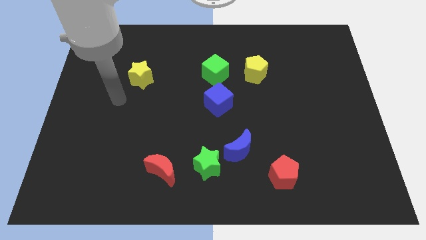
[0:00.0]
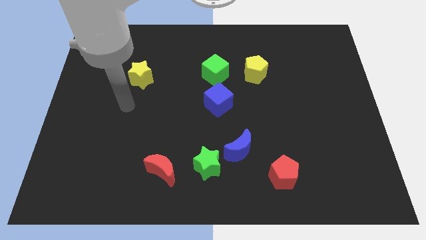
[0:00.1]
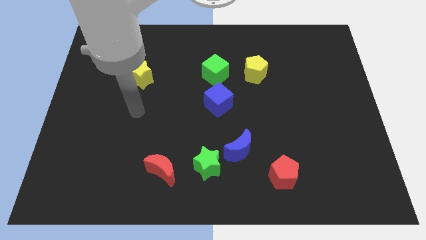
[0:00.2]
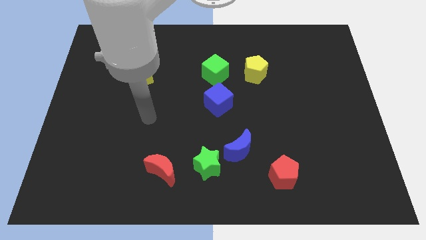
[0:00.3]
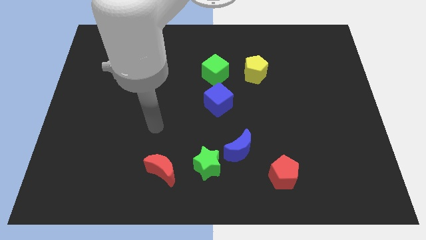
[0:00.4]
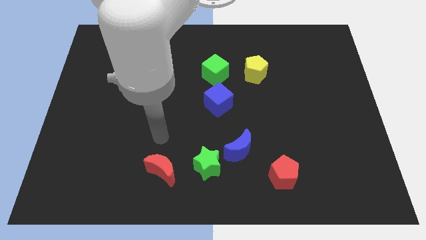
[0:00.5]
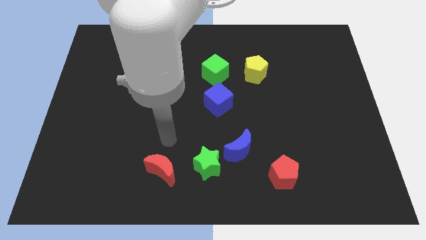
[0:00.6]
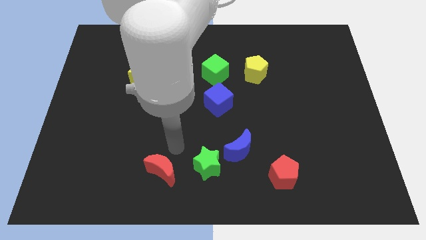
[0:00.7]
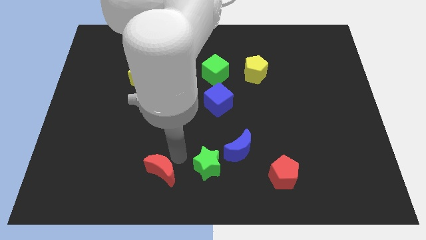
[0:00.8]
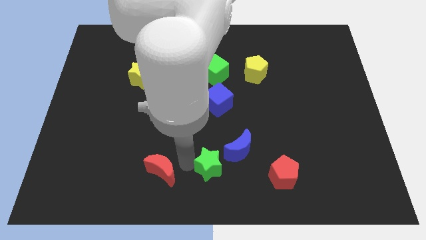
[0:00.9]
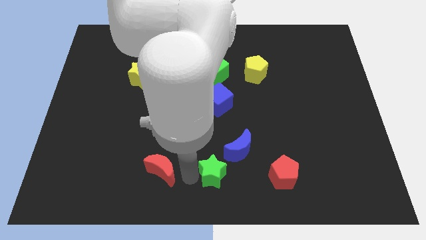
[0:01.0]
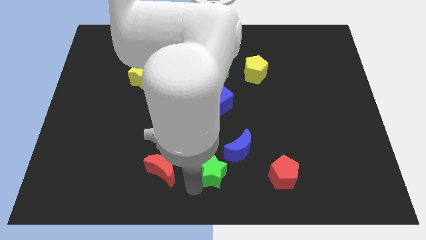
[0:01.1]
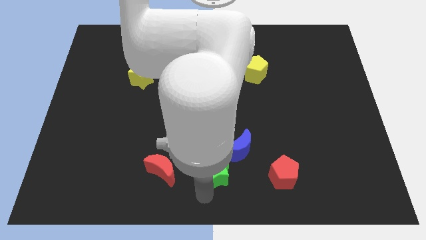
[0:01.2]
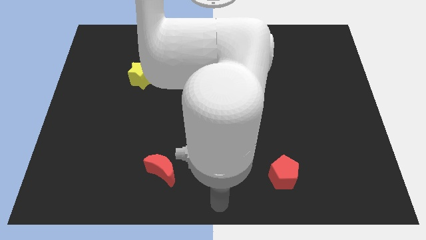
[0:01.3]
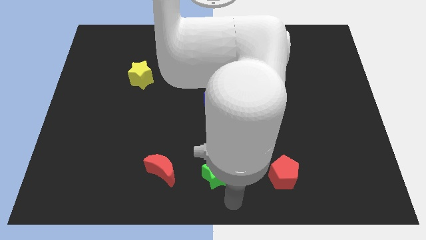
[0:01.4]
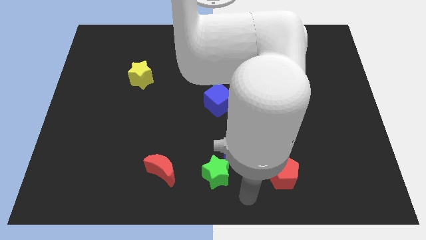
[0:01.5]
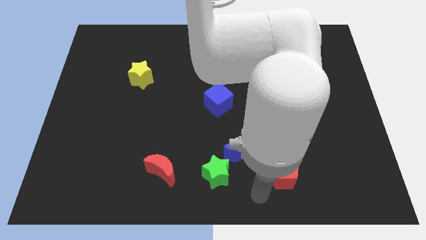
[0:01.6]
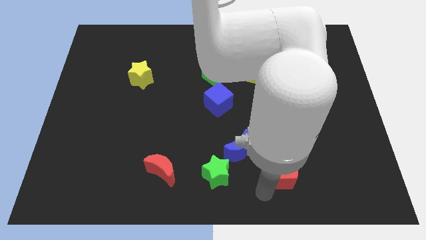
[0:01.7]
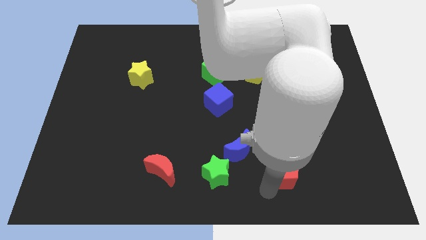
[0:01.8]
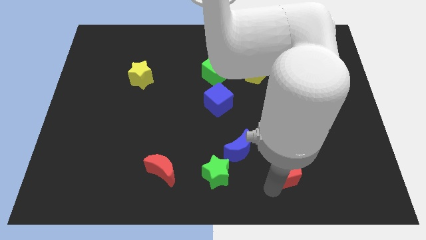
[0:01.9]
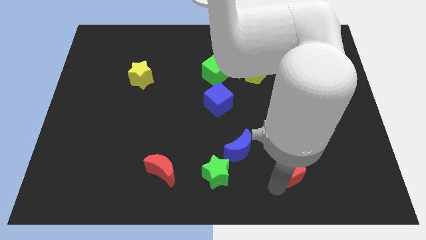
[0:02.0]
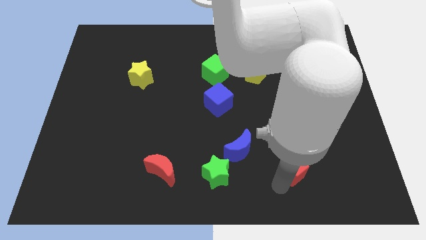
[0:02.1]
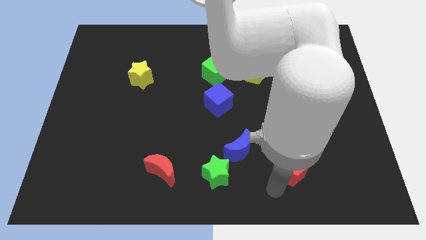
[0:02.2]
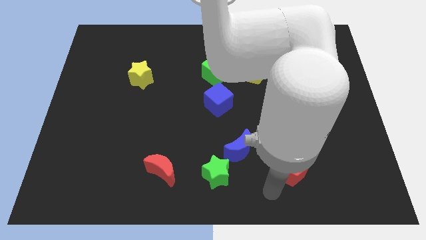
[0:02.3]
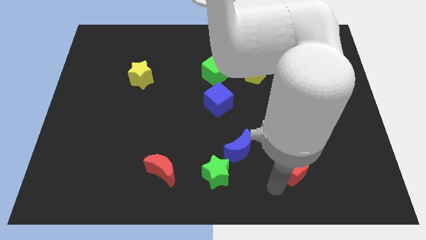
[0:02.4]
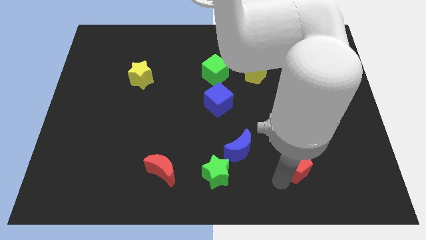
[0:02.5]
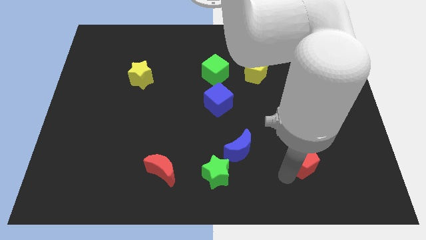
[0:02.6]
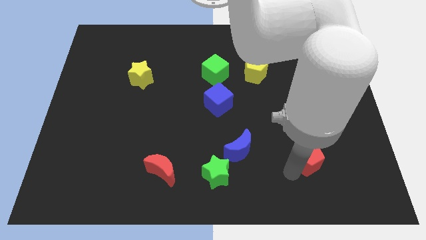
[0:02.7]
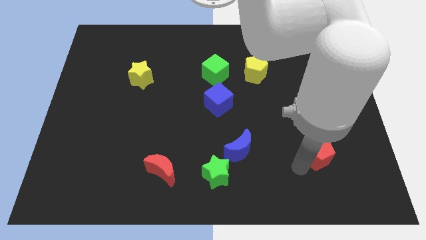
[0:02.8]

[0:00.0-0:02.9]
slide the red pentagon a little bit up and right diagonally

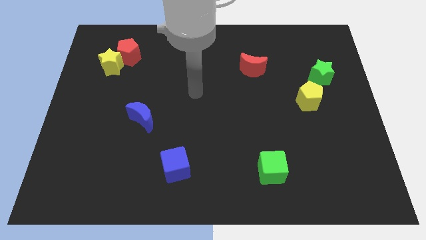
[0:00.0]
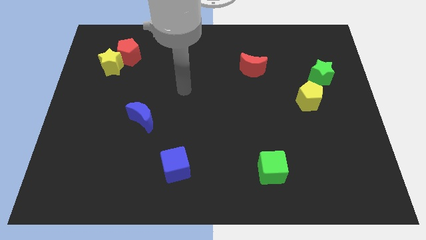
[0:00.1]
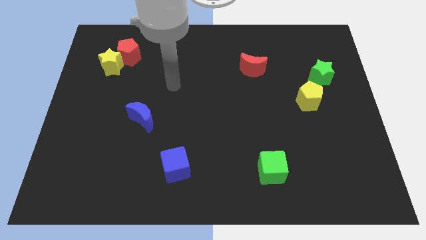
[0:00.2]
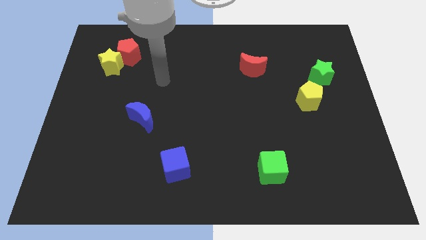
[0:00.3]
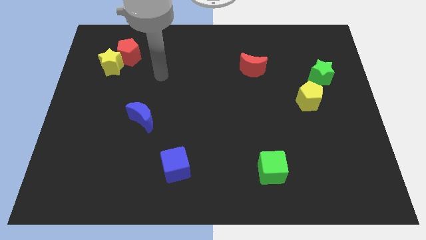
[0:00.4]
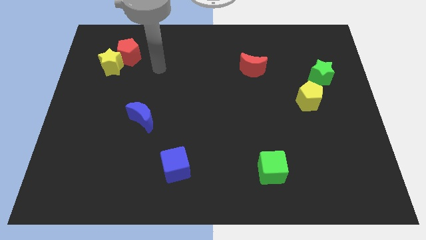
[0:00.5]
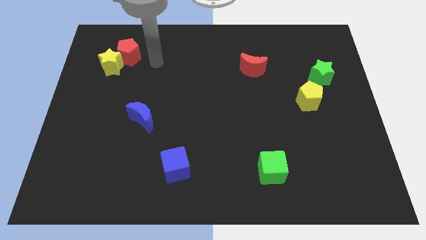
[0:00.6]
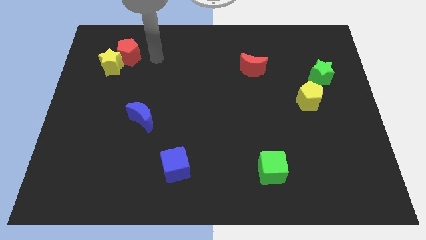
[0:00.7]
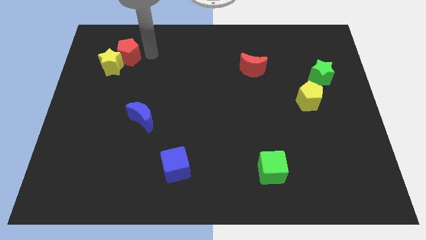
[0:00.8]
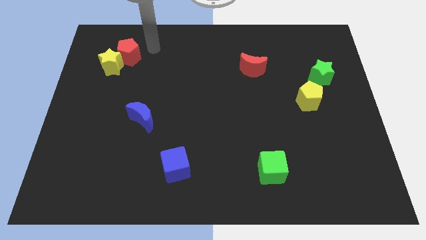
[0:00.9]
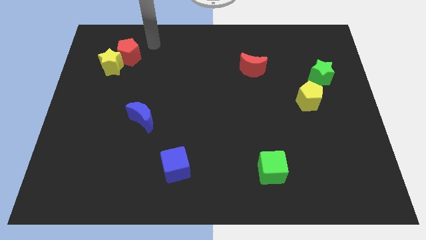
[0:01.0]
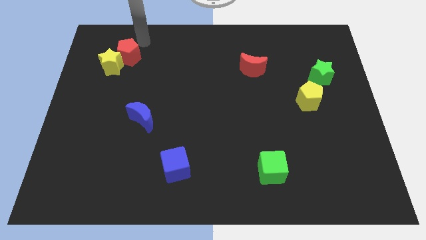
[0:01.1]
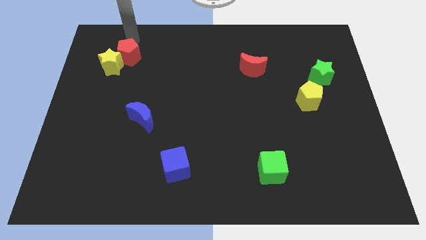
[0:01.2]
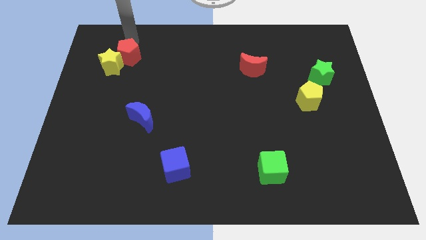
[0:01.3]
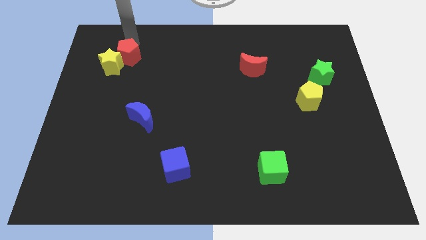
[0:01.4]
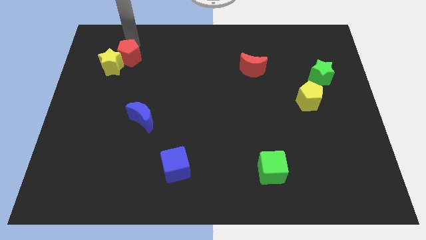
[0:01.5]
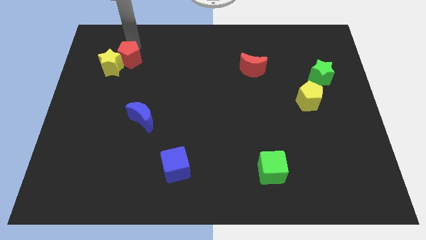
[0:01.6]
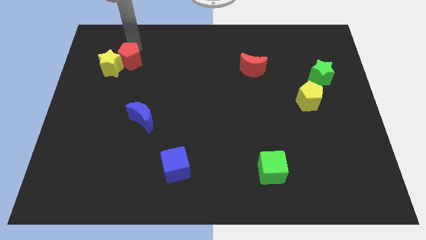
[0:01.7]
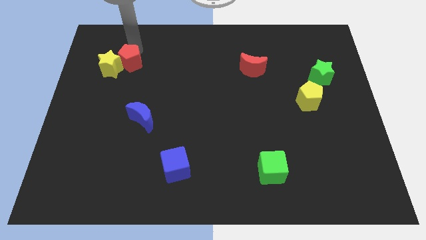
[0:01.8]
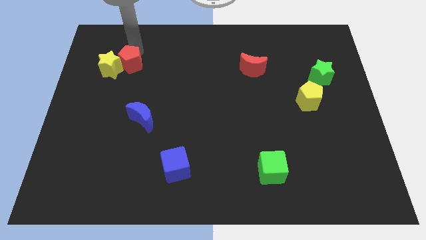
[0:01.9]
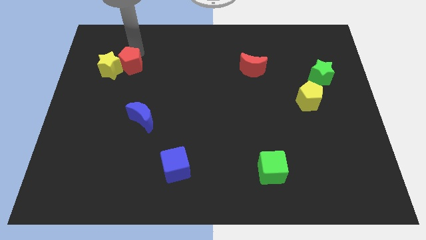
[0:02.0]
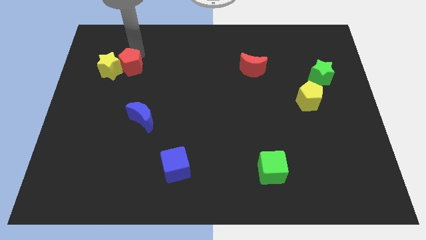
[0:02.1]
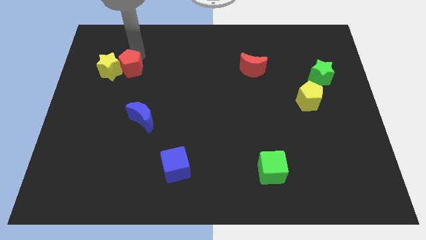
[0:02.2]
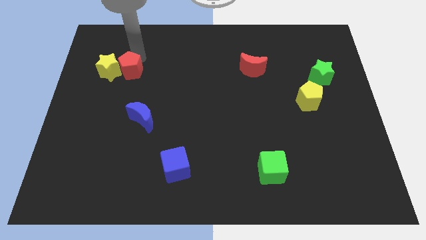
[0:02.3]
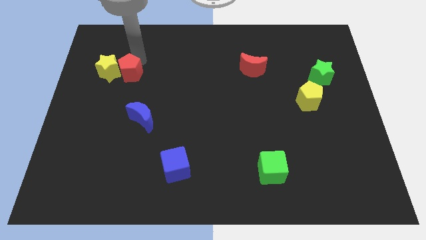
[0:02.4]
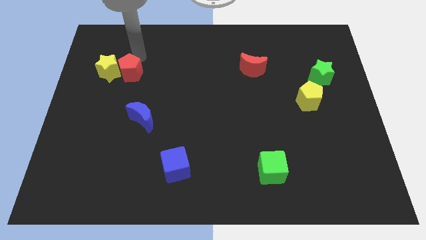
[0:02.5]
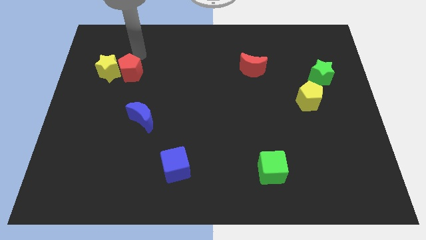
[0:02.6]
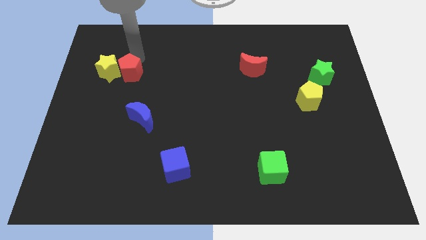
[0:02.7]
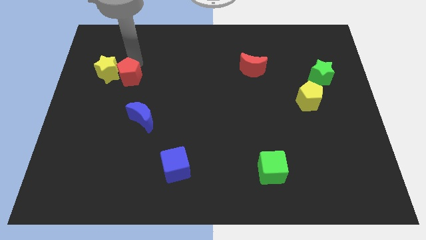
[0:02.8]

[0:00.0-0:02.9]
push the red pentagon downwards a bit

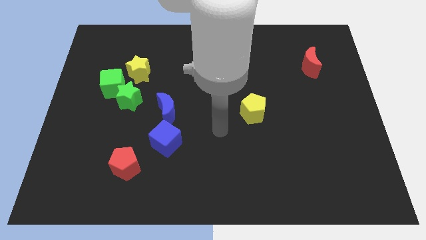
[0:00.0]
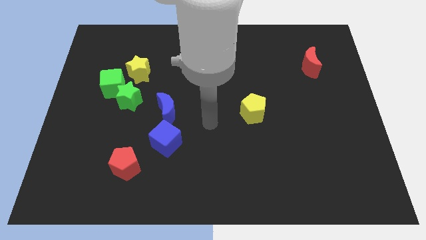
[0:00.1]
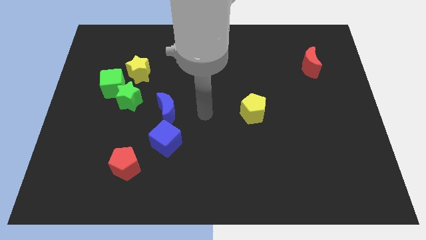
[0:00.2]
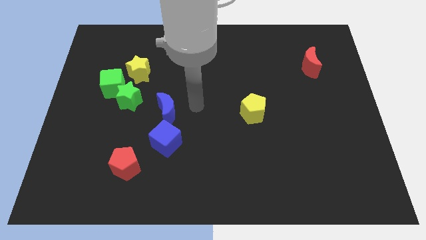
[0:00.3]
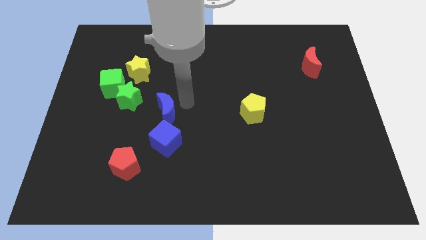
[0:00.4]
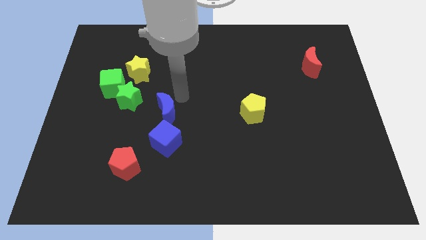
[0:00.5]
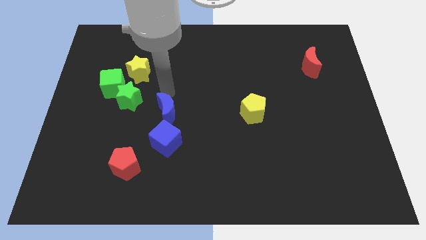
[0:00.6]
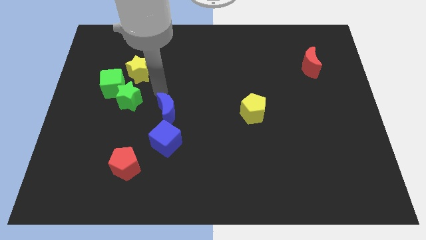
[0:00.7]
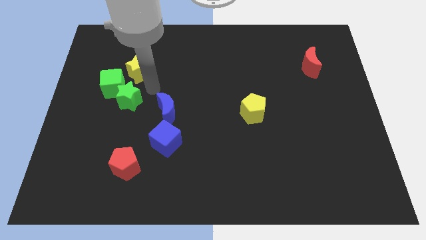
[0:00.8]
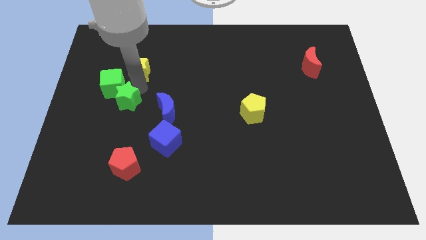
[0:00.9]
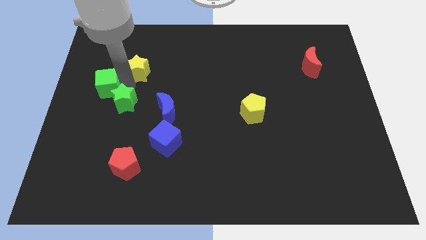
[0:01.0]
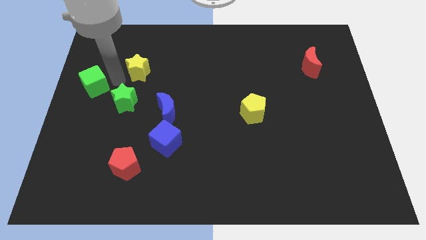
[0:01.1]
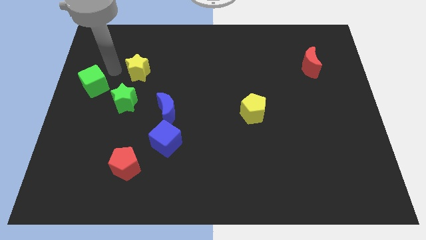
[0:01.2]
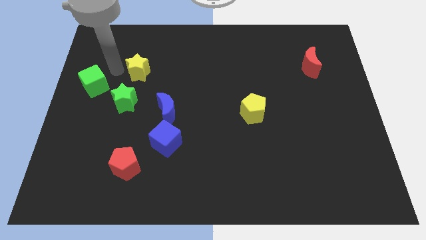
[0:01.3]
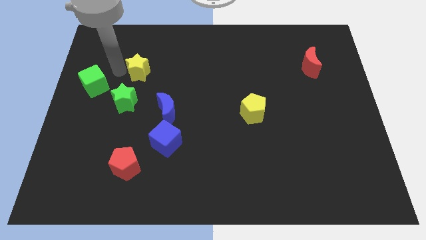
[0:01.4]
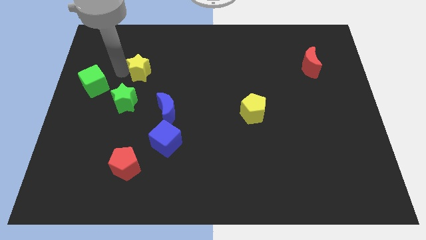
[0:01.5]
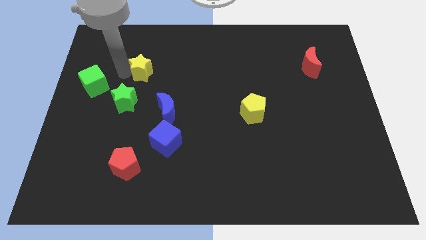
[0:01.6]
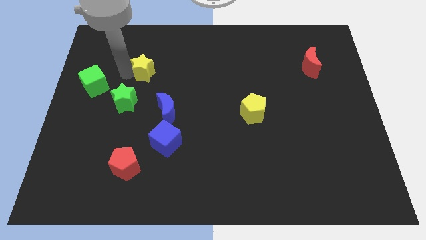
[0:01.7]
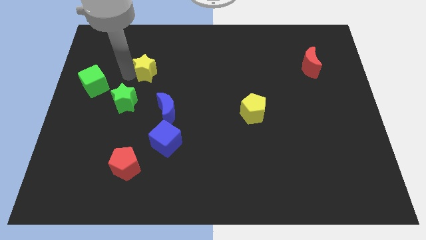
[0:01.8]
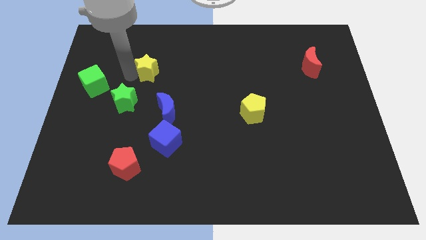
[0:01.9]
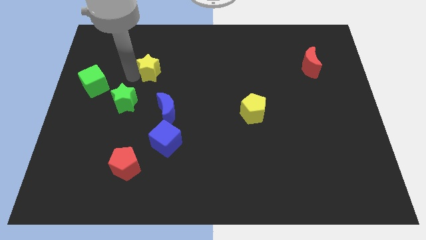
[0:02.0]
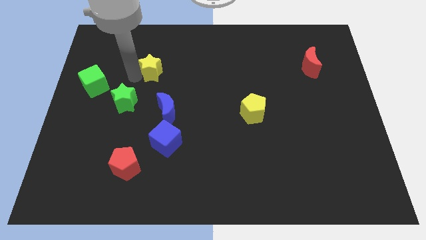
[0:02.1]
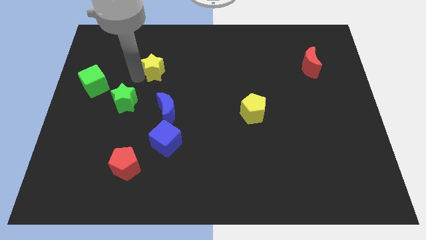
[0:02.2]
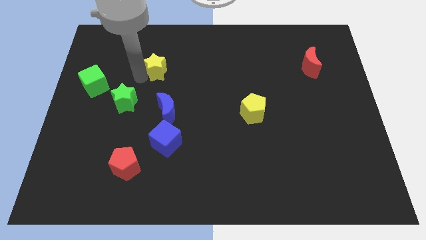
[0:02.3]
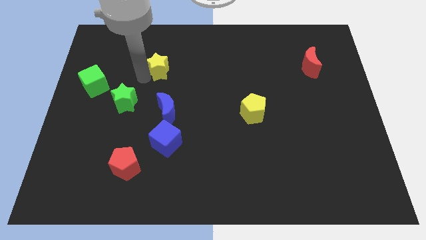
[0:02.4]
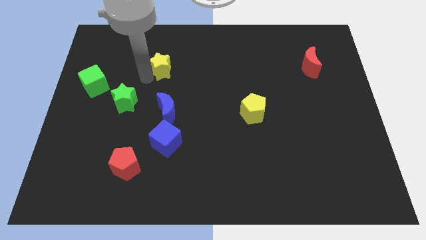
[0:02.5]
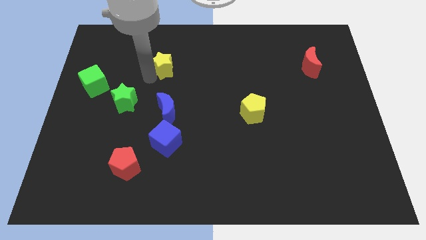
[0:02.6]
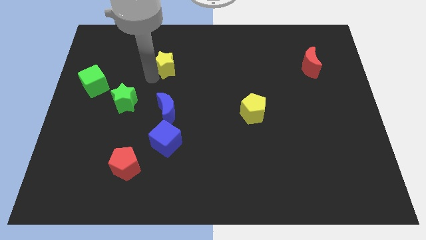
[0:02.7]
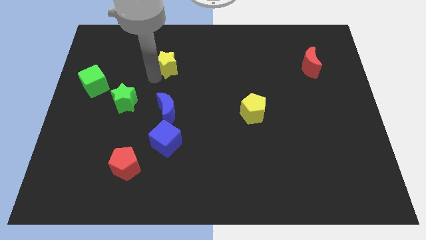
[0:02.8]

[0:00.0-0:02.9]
slide the yellow star a bit right
